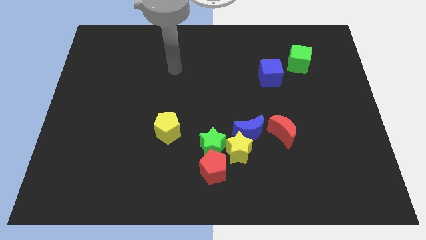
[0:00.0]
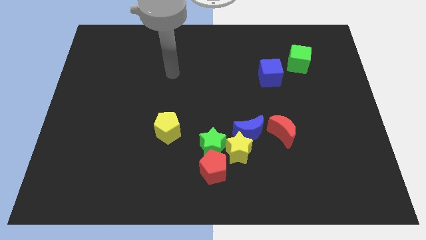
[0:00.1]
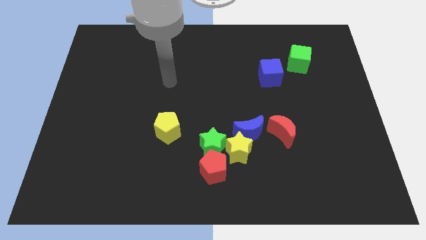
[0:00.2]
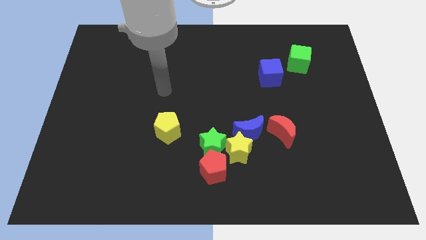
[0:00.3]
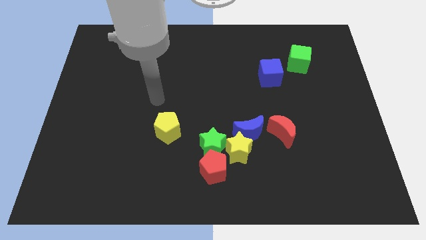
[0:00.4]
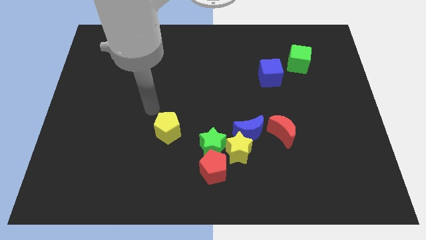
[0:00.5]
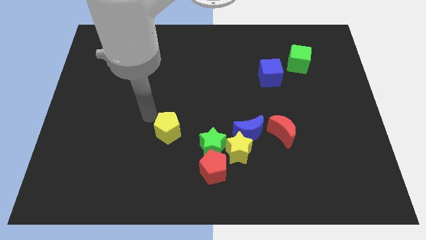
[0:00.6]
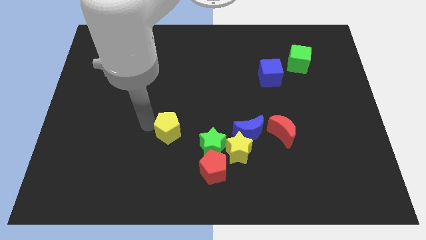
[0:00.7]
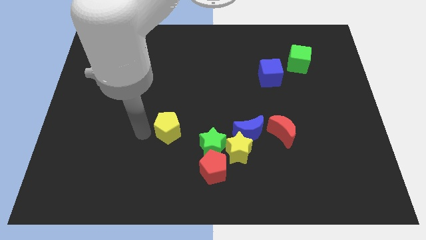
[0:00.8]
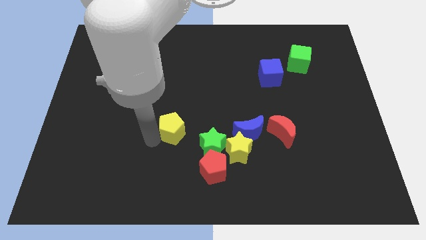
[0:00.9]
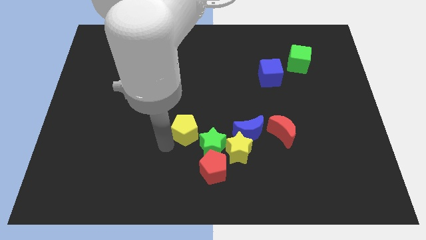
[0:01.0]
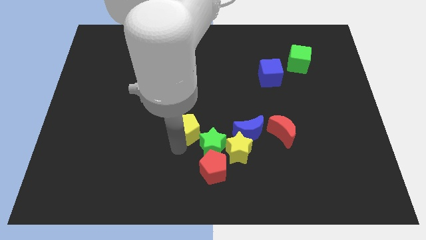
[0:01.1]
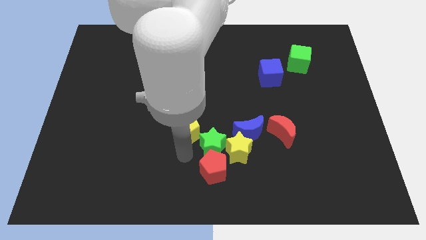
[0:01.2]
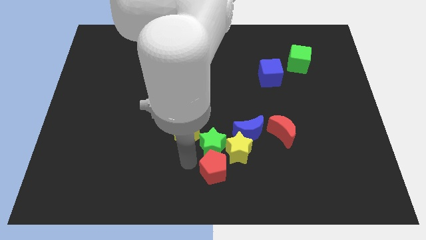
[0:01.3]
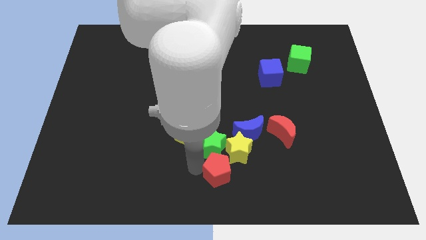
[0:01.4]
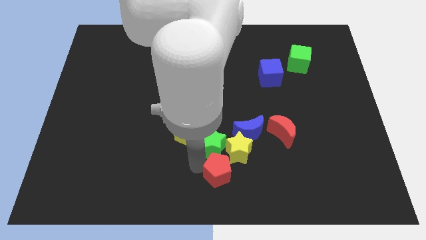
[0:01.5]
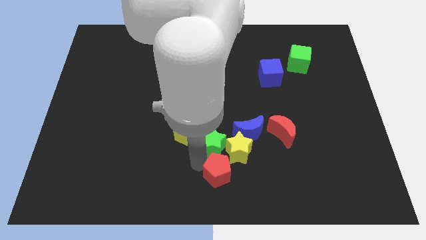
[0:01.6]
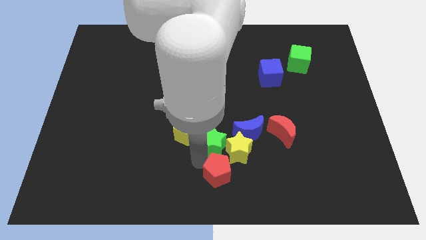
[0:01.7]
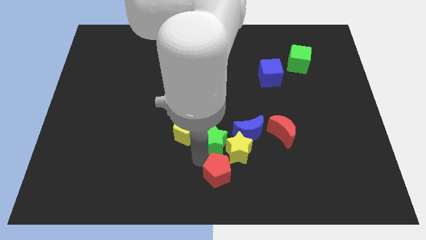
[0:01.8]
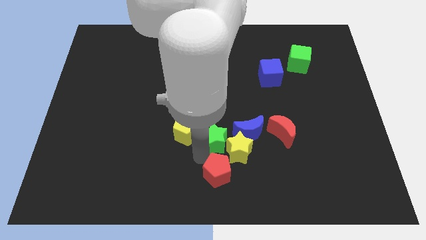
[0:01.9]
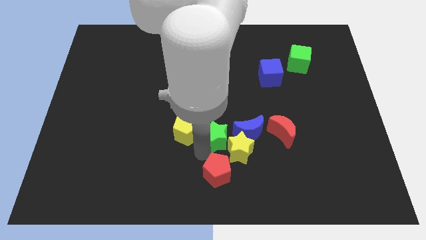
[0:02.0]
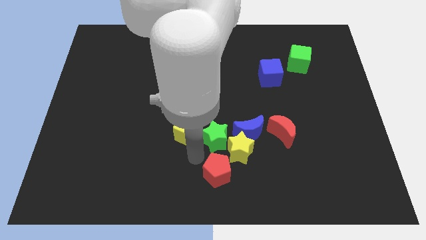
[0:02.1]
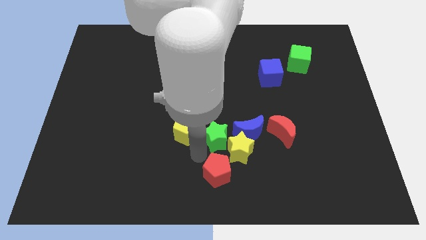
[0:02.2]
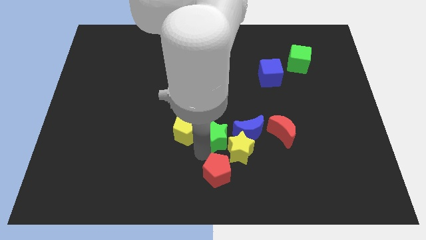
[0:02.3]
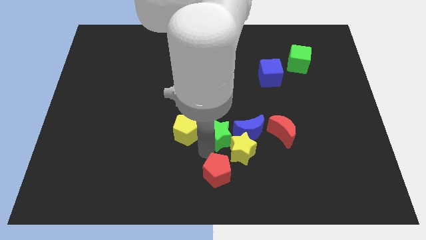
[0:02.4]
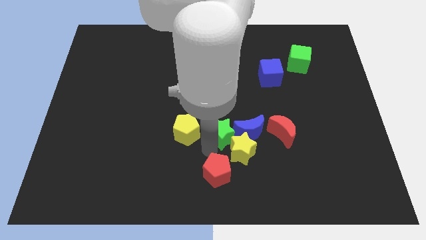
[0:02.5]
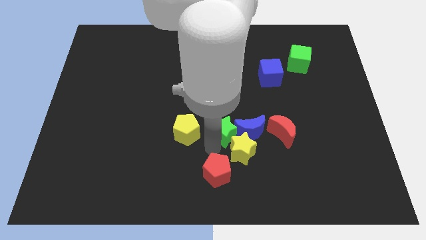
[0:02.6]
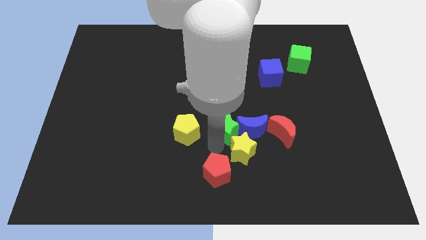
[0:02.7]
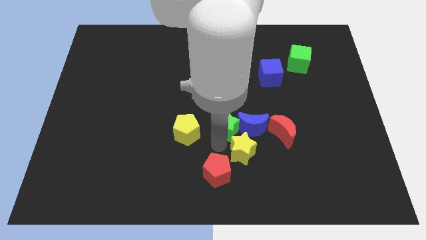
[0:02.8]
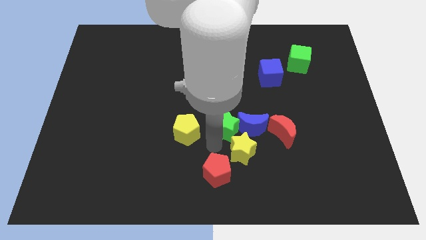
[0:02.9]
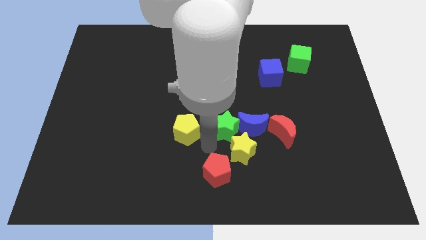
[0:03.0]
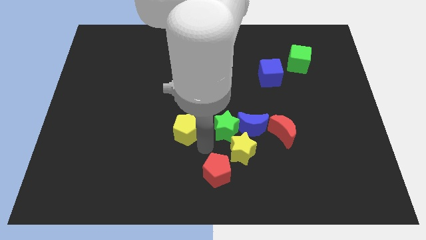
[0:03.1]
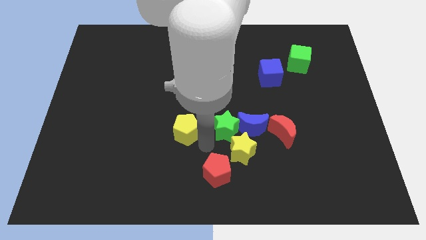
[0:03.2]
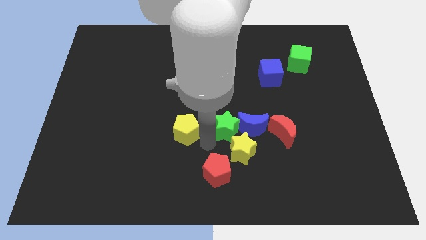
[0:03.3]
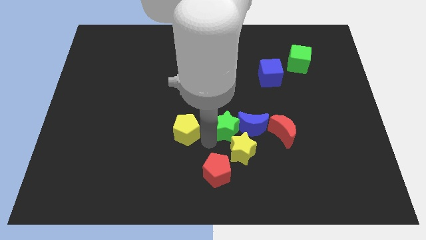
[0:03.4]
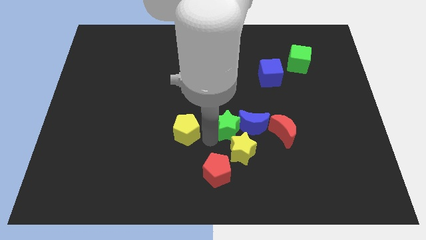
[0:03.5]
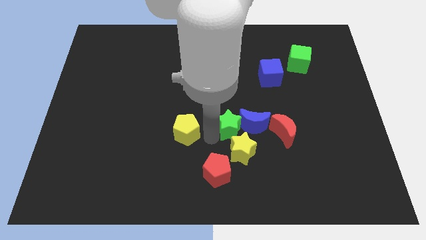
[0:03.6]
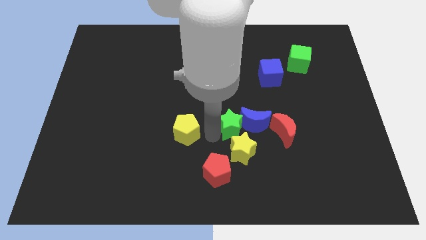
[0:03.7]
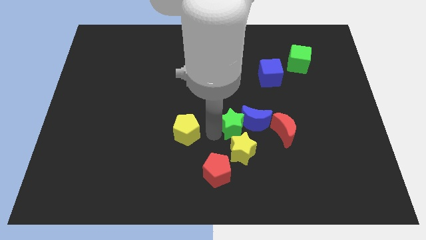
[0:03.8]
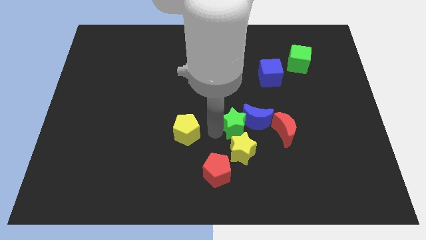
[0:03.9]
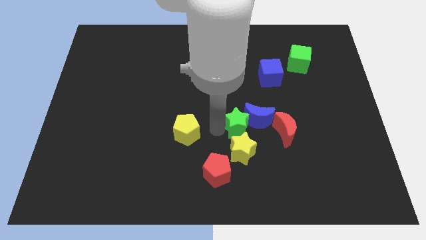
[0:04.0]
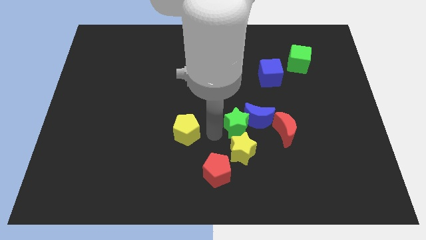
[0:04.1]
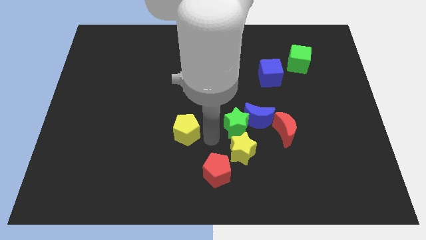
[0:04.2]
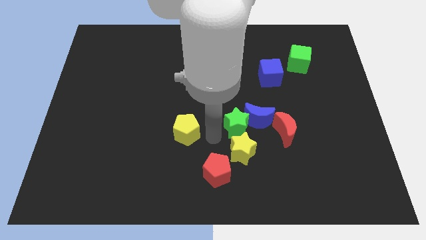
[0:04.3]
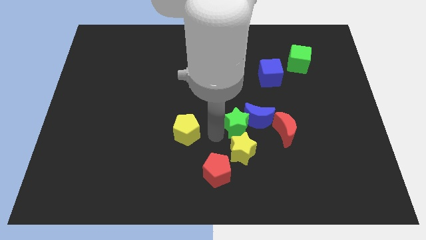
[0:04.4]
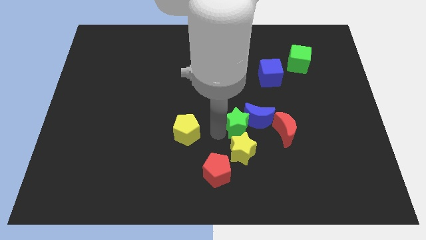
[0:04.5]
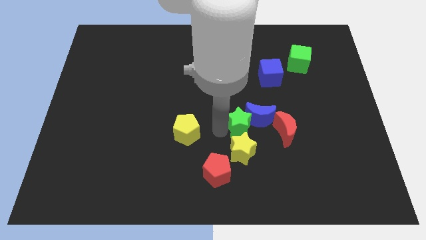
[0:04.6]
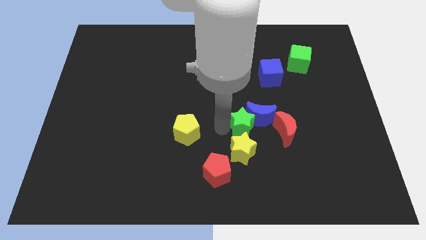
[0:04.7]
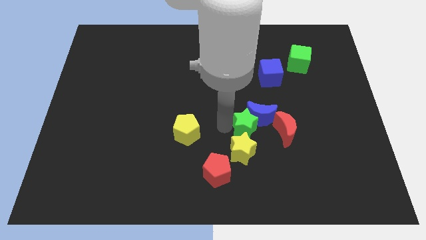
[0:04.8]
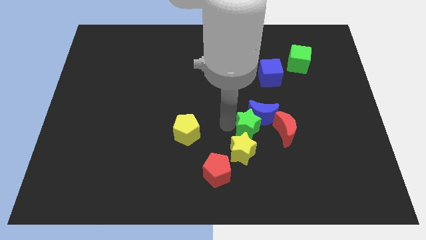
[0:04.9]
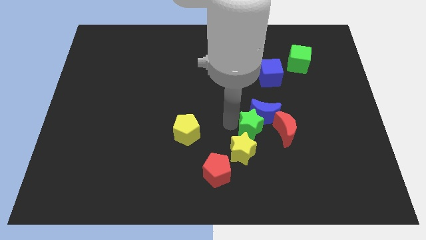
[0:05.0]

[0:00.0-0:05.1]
slide the green star diagonally up and to the left of the red moon

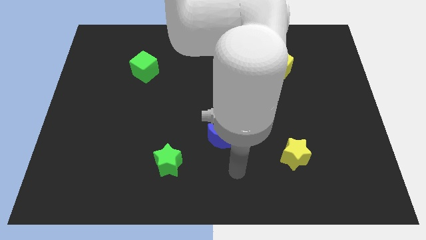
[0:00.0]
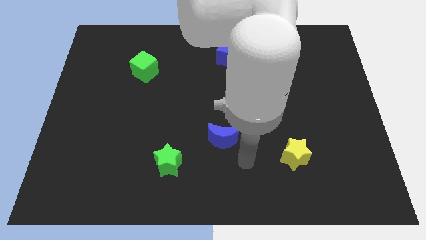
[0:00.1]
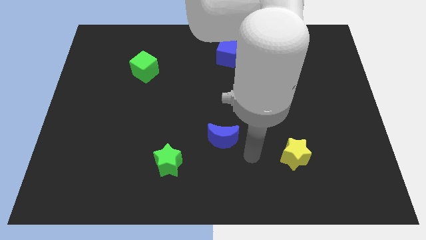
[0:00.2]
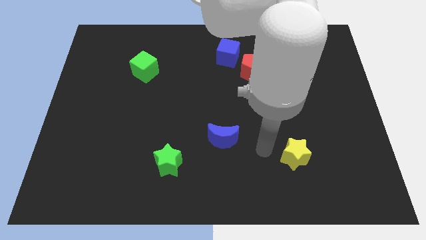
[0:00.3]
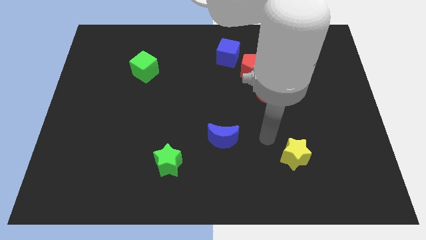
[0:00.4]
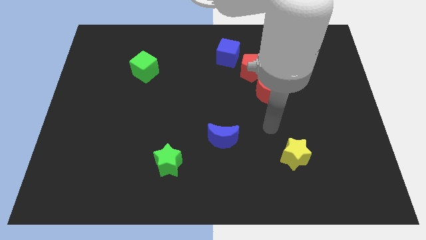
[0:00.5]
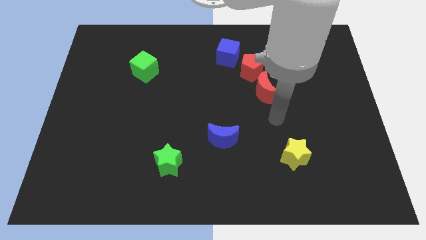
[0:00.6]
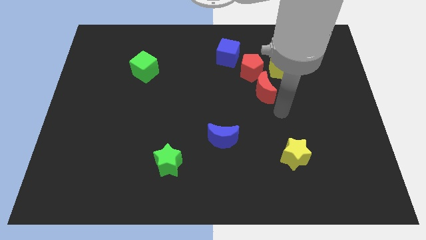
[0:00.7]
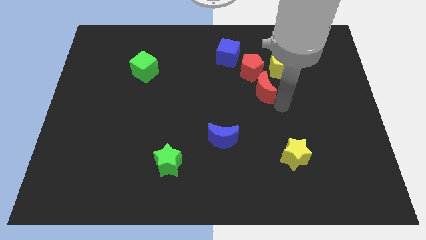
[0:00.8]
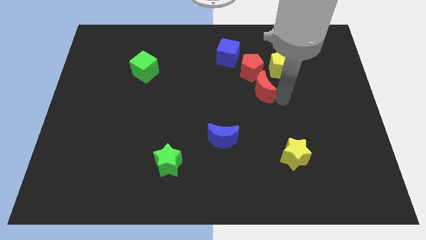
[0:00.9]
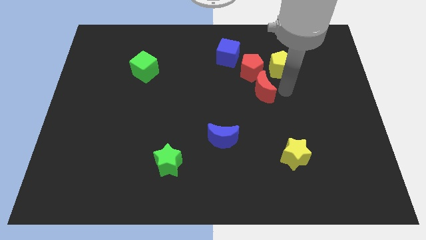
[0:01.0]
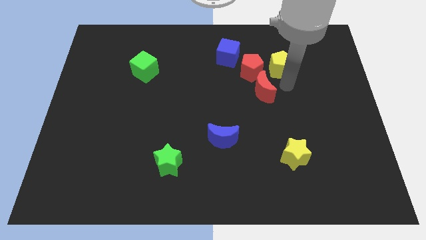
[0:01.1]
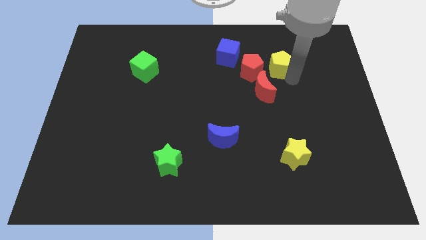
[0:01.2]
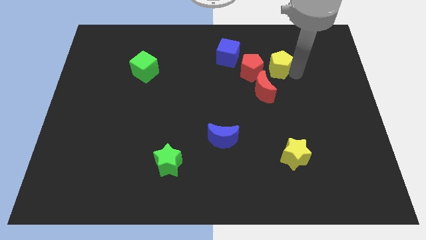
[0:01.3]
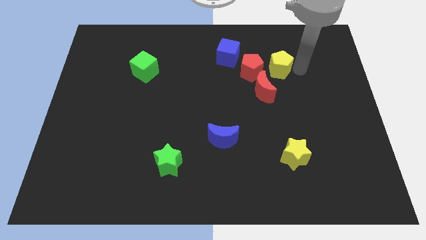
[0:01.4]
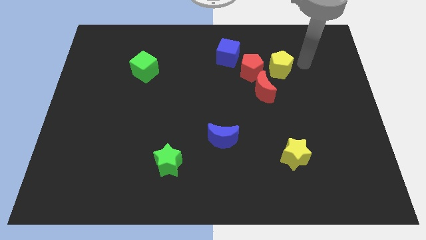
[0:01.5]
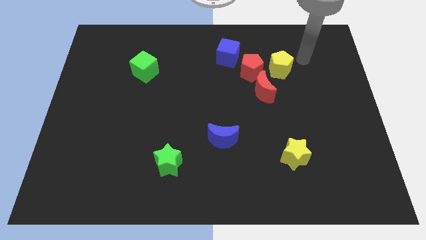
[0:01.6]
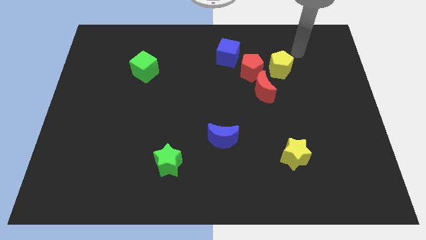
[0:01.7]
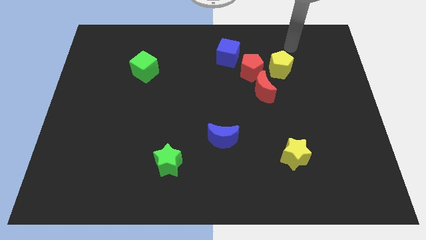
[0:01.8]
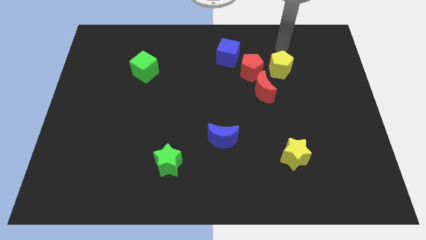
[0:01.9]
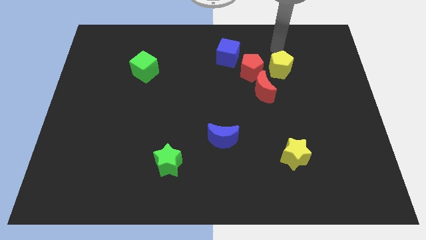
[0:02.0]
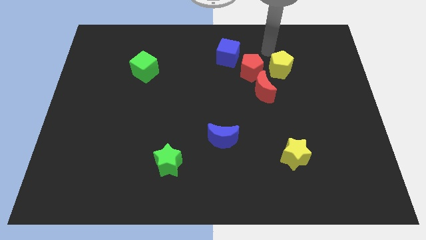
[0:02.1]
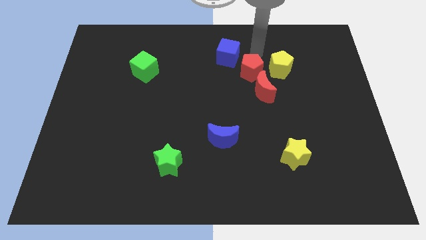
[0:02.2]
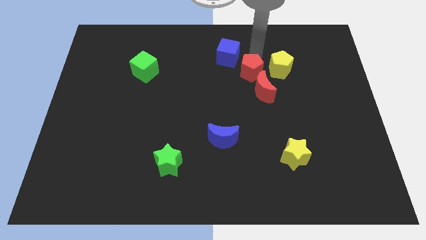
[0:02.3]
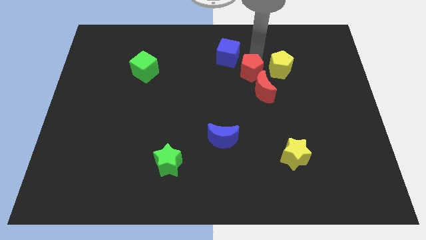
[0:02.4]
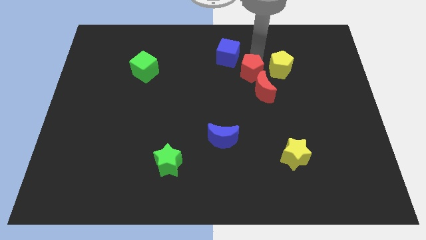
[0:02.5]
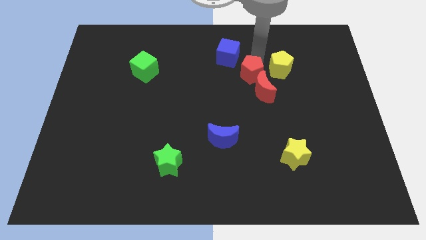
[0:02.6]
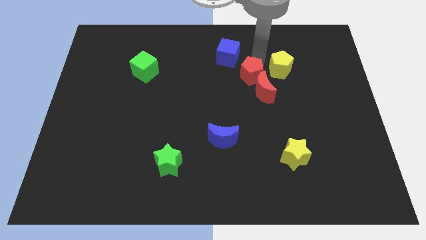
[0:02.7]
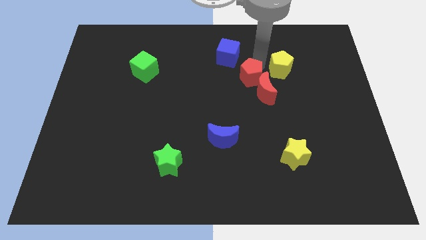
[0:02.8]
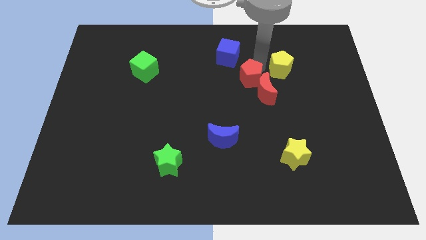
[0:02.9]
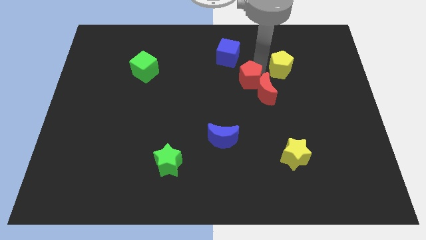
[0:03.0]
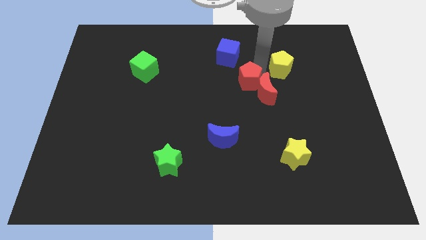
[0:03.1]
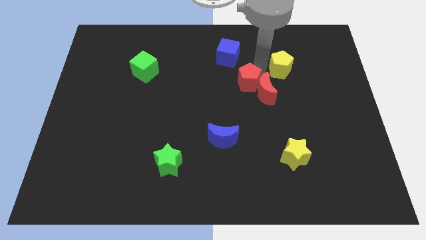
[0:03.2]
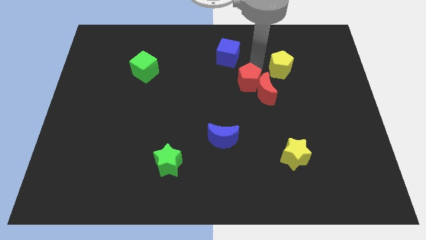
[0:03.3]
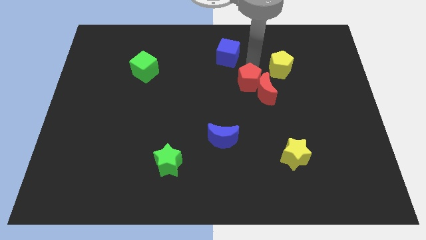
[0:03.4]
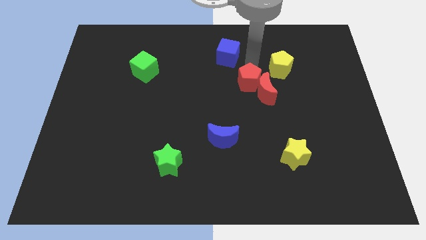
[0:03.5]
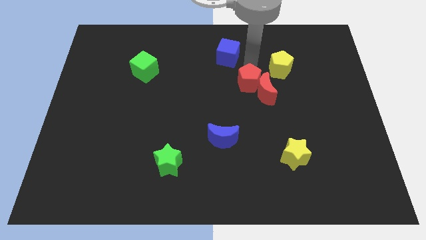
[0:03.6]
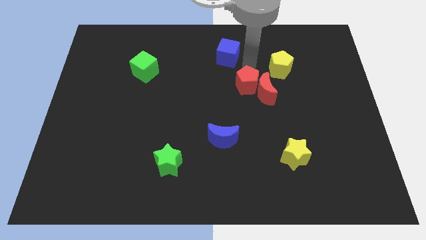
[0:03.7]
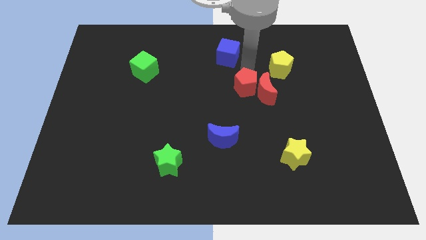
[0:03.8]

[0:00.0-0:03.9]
push the red pentagon diagonally down and to the left of the red moon
